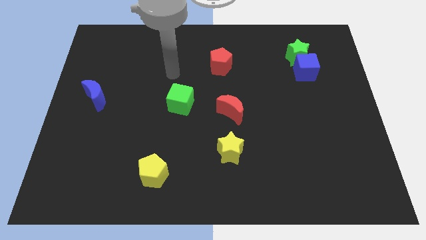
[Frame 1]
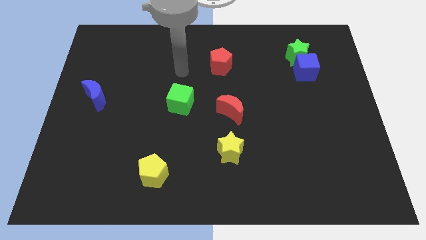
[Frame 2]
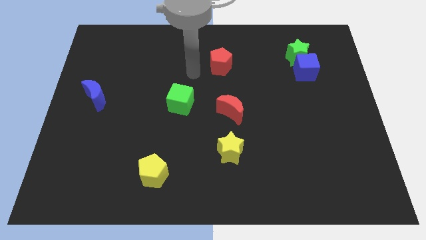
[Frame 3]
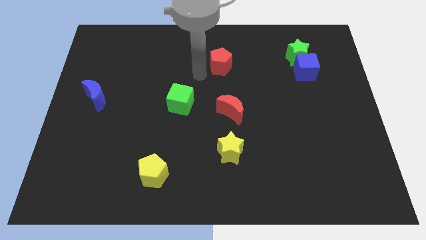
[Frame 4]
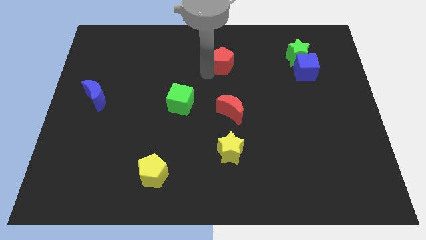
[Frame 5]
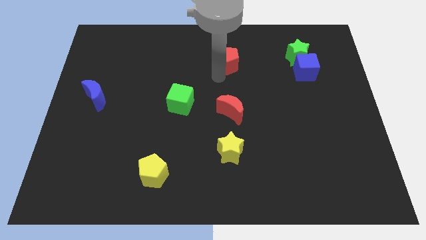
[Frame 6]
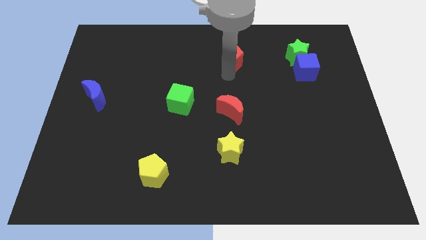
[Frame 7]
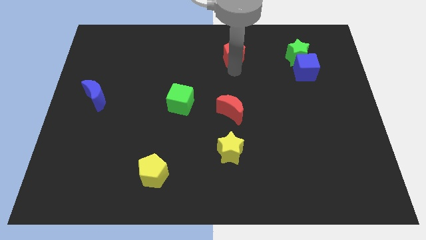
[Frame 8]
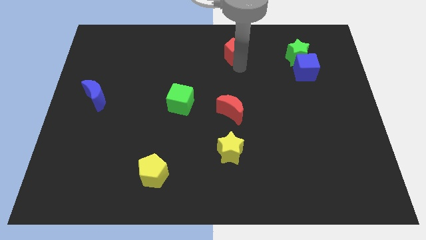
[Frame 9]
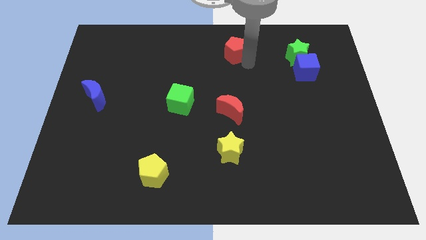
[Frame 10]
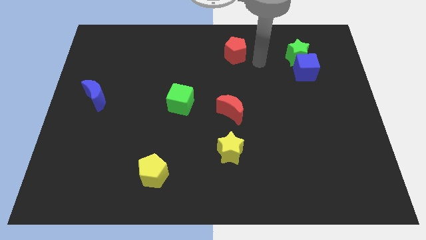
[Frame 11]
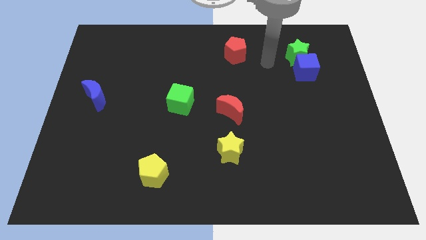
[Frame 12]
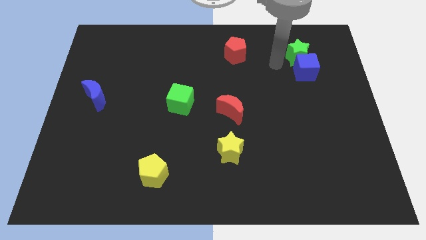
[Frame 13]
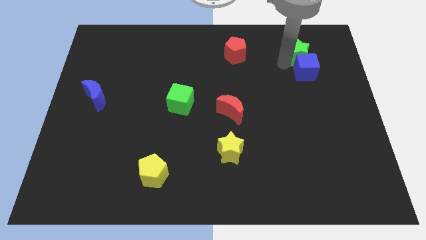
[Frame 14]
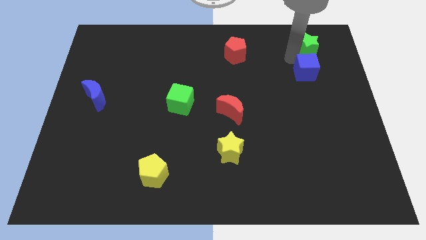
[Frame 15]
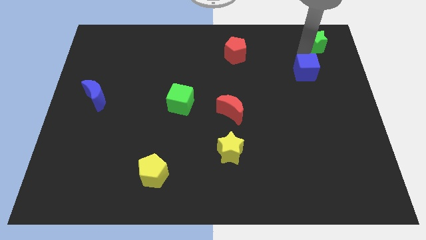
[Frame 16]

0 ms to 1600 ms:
move the blue cube away from the green star

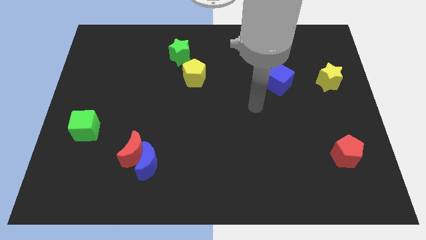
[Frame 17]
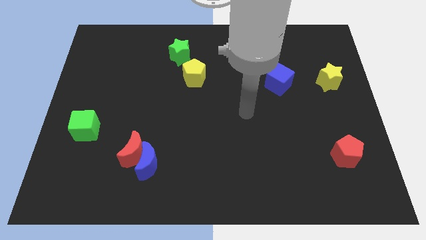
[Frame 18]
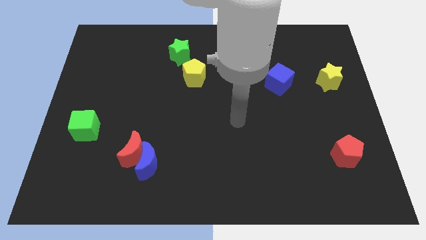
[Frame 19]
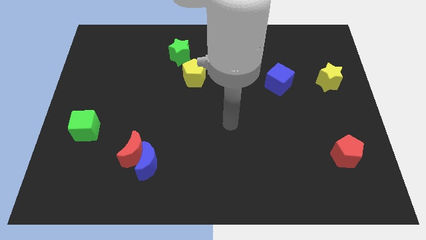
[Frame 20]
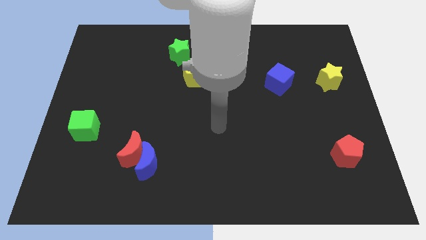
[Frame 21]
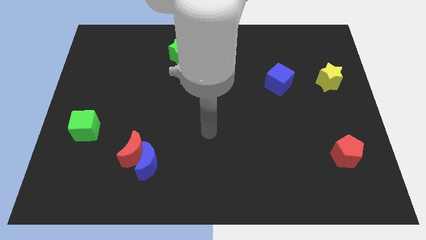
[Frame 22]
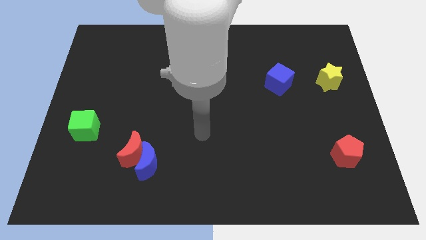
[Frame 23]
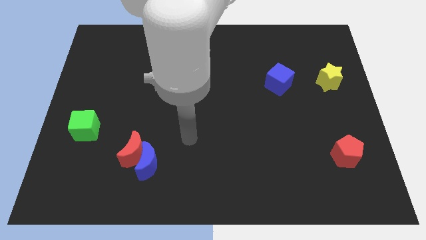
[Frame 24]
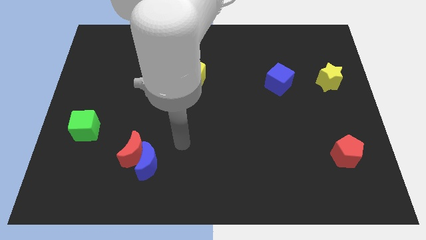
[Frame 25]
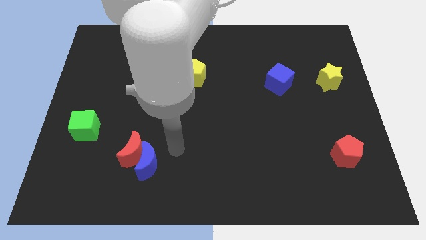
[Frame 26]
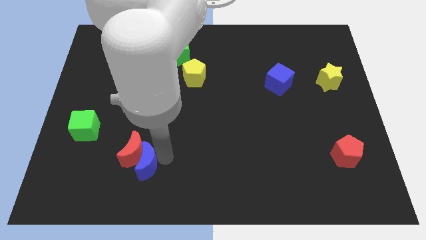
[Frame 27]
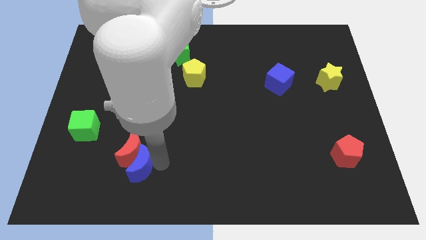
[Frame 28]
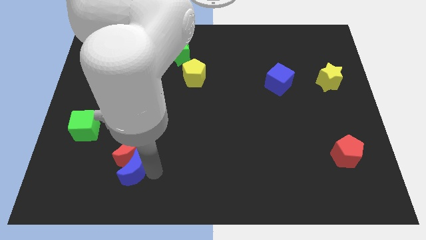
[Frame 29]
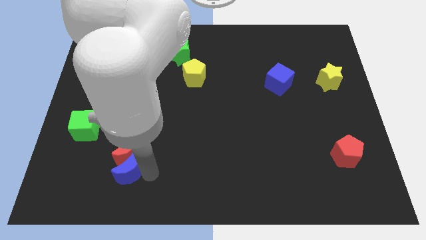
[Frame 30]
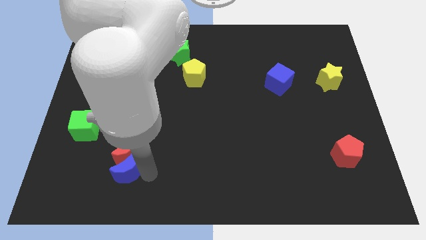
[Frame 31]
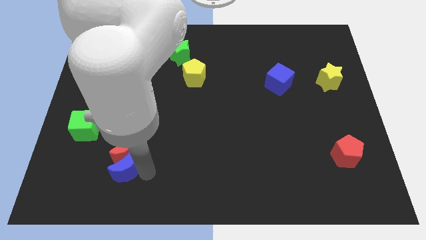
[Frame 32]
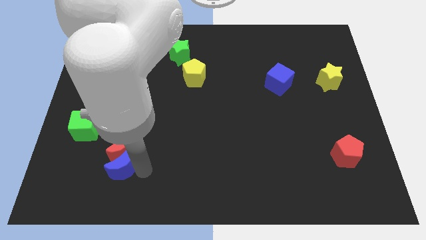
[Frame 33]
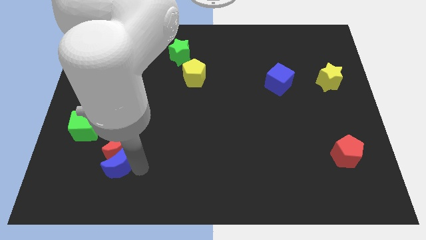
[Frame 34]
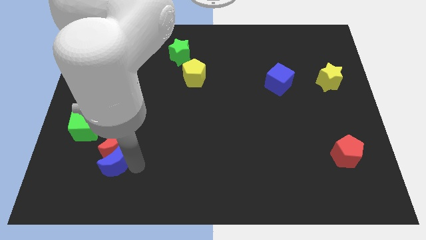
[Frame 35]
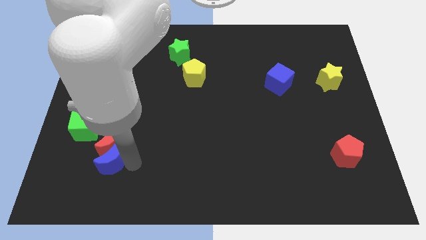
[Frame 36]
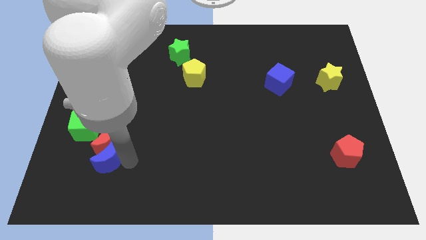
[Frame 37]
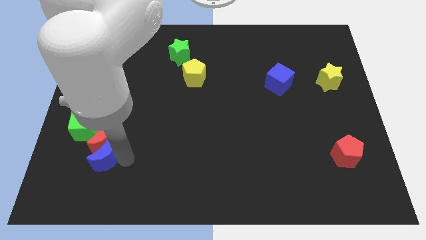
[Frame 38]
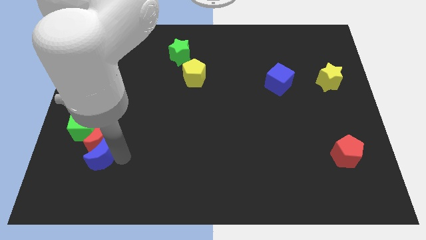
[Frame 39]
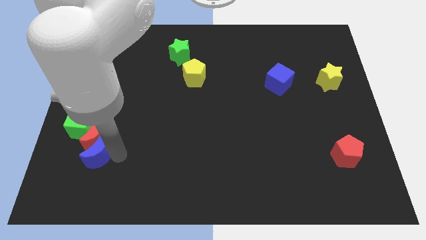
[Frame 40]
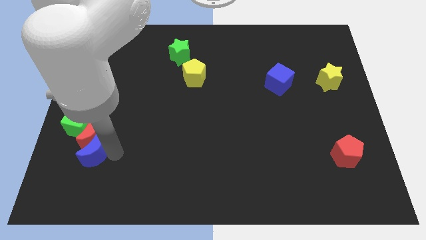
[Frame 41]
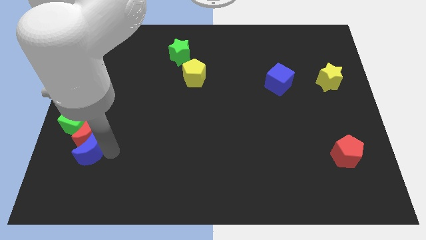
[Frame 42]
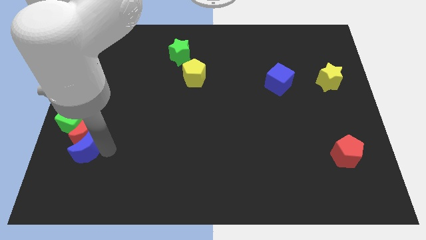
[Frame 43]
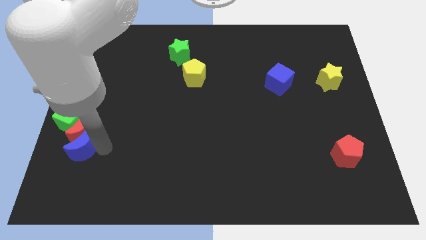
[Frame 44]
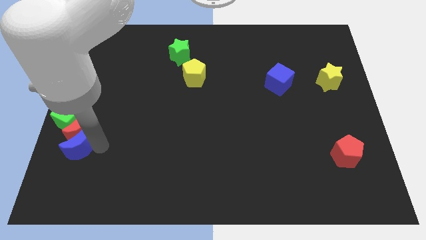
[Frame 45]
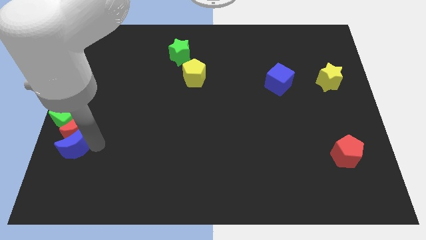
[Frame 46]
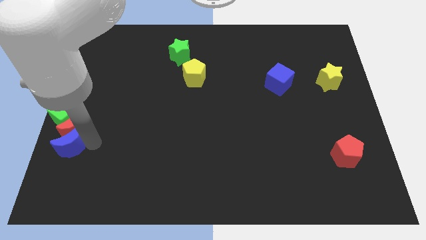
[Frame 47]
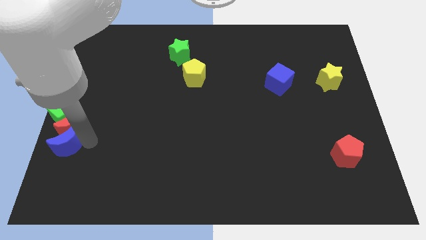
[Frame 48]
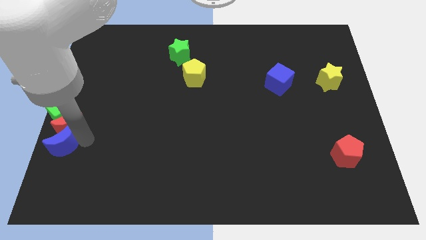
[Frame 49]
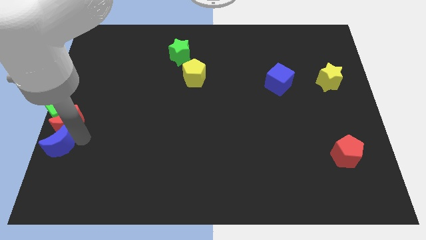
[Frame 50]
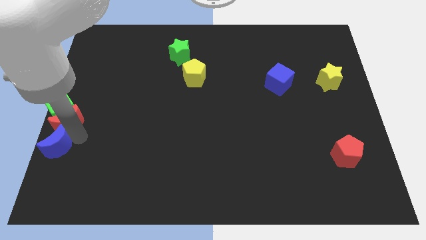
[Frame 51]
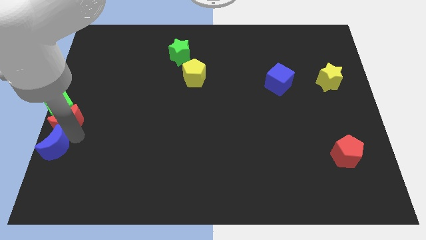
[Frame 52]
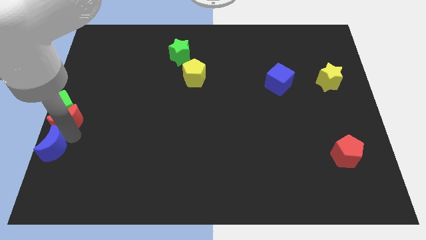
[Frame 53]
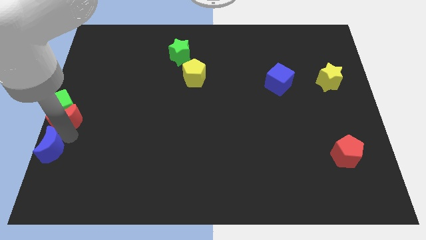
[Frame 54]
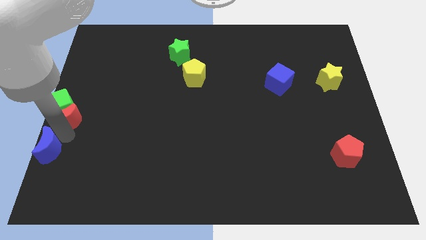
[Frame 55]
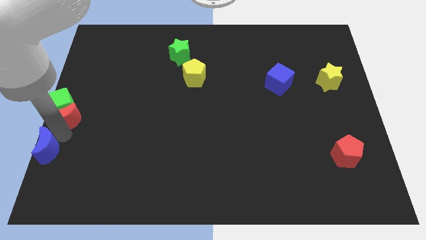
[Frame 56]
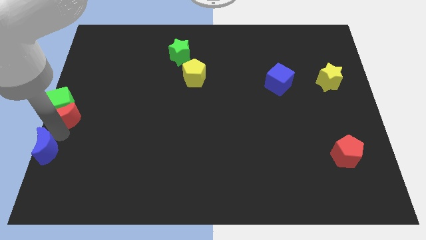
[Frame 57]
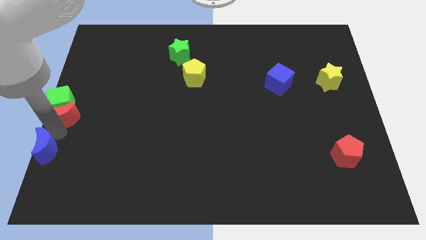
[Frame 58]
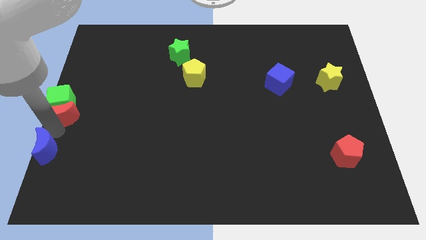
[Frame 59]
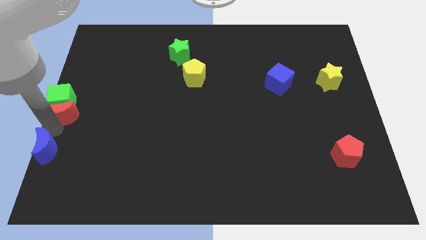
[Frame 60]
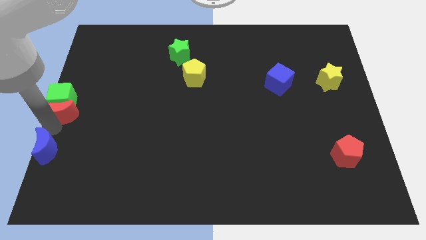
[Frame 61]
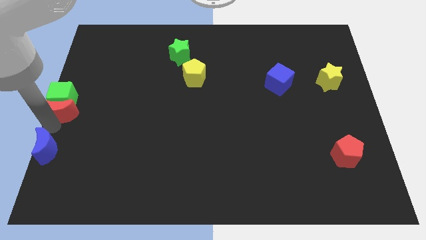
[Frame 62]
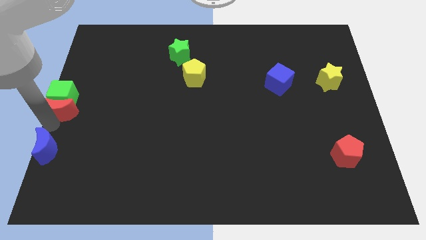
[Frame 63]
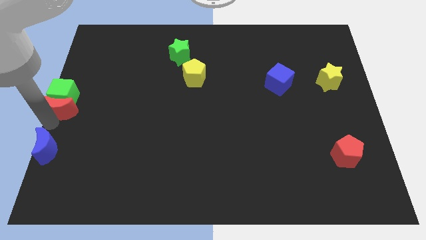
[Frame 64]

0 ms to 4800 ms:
separate the red moon from the blue moon

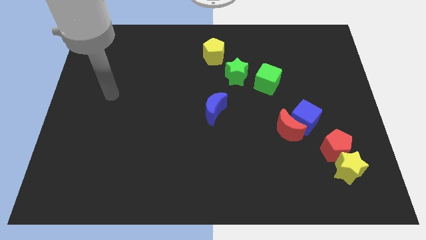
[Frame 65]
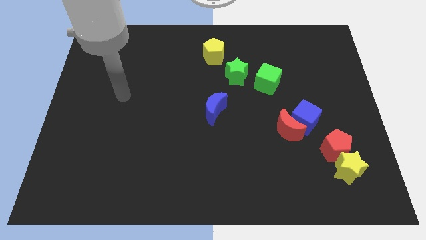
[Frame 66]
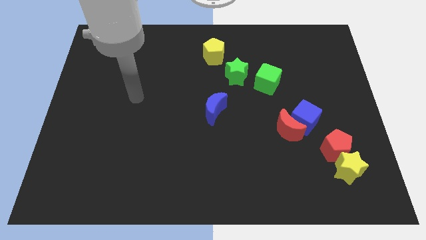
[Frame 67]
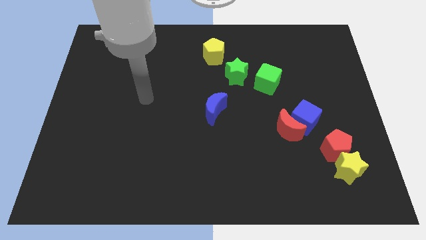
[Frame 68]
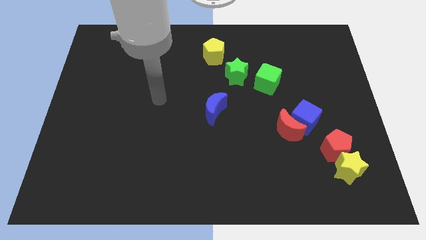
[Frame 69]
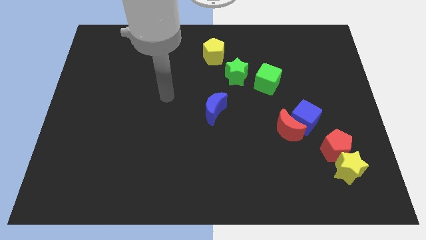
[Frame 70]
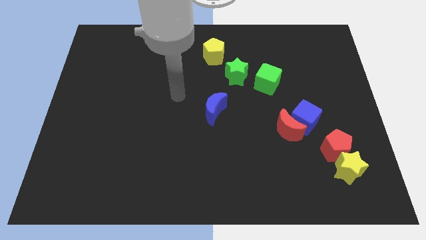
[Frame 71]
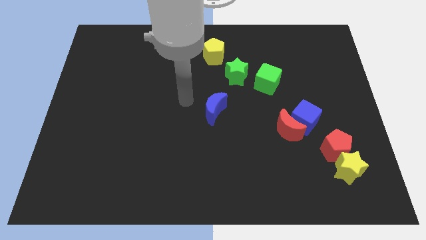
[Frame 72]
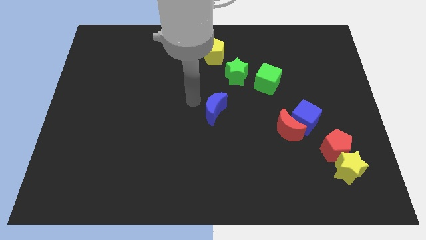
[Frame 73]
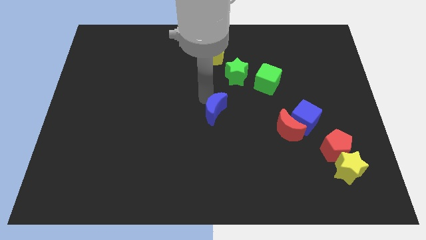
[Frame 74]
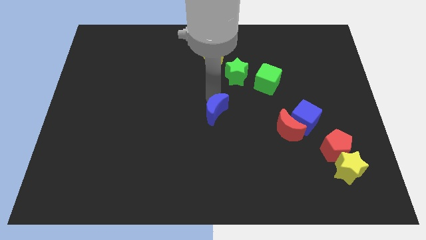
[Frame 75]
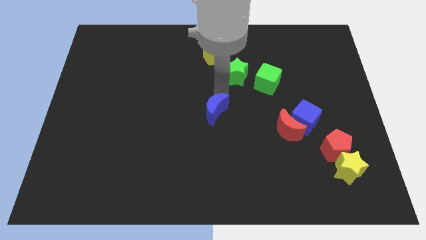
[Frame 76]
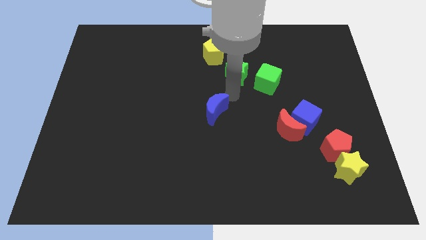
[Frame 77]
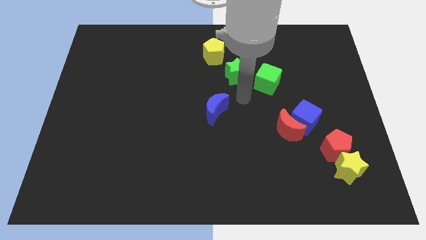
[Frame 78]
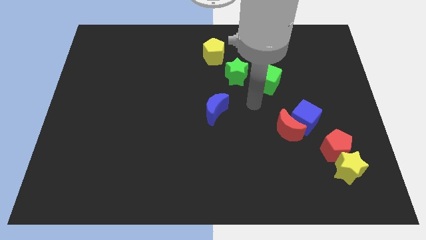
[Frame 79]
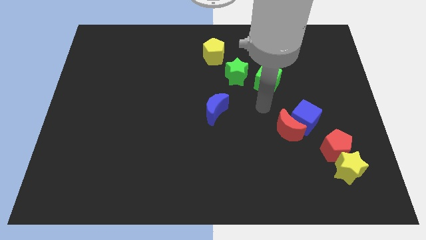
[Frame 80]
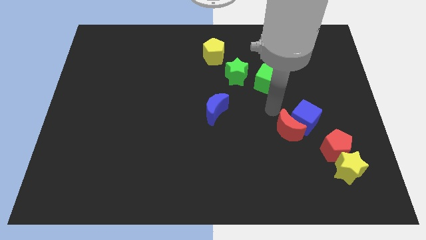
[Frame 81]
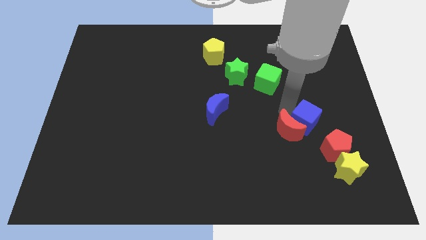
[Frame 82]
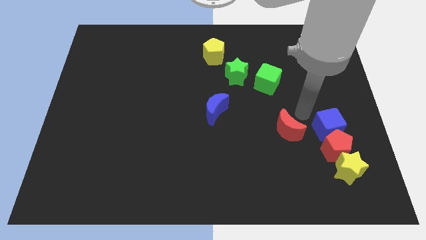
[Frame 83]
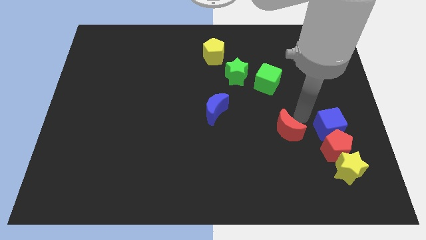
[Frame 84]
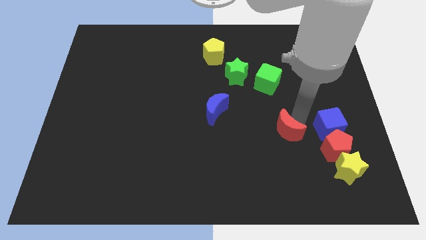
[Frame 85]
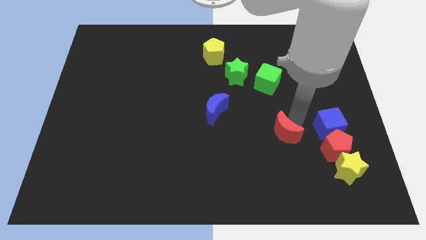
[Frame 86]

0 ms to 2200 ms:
move the red moon away from the blue cube

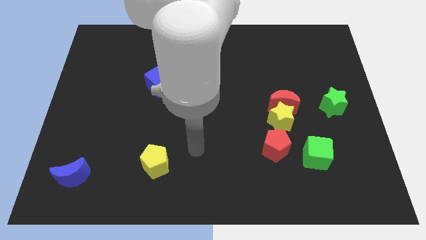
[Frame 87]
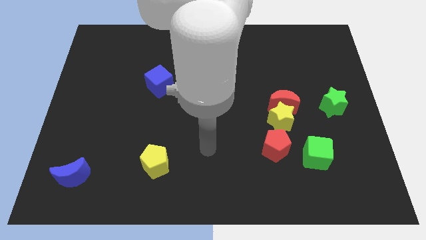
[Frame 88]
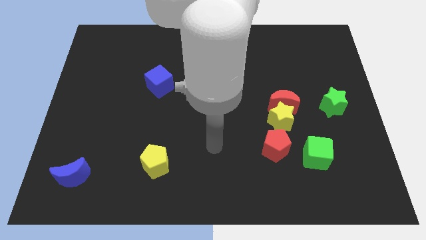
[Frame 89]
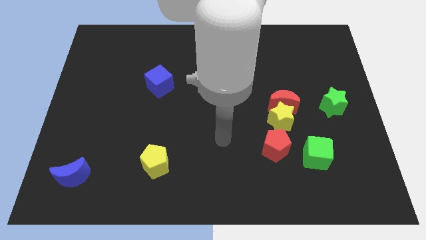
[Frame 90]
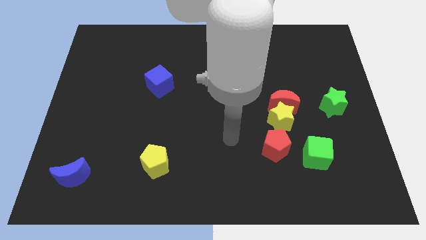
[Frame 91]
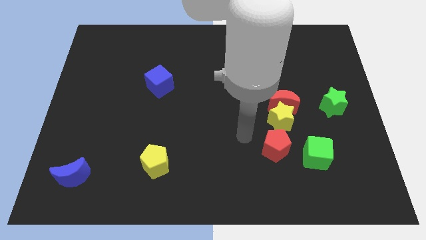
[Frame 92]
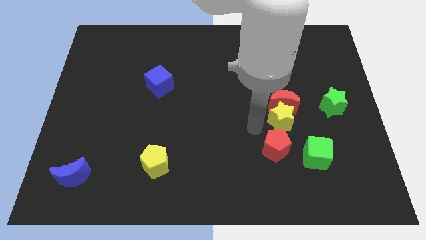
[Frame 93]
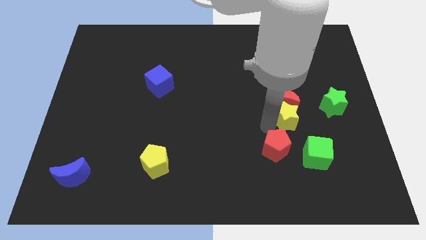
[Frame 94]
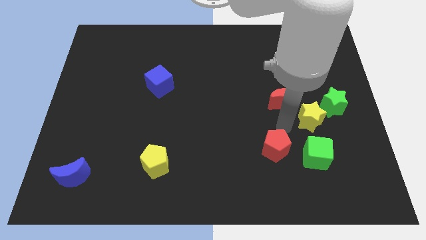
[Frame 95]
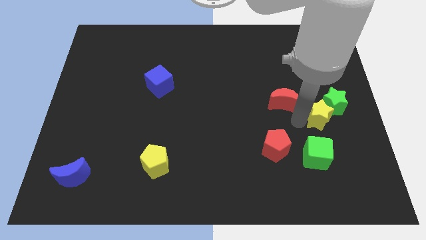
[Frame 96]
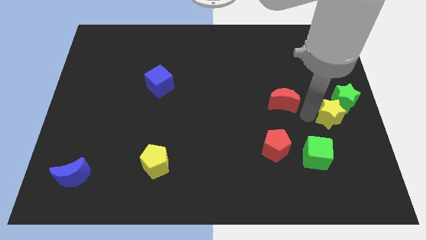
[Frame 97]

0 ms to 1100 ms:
pull the red moon apart from the yellow star
